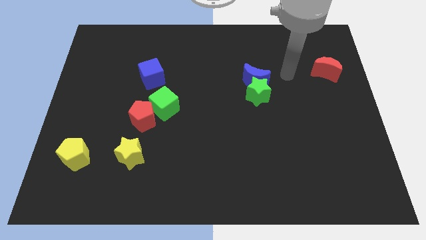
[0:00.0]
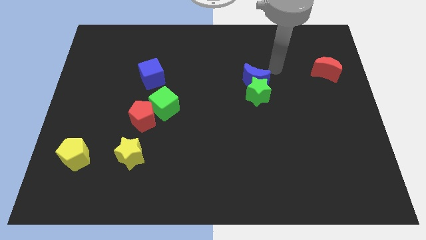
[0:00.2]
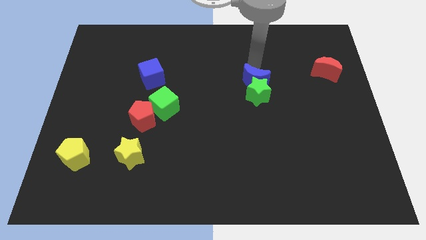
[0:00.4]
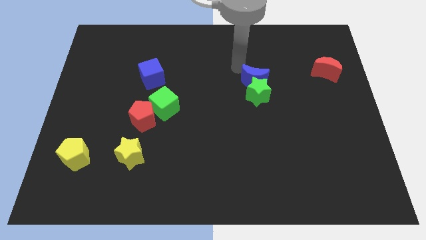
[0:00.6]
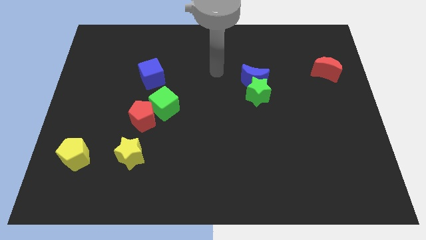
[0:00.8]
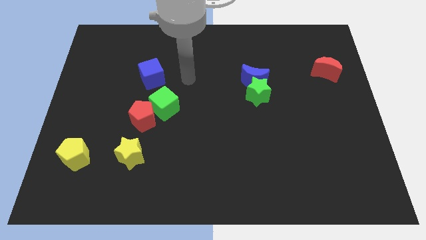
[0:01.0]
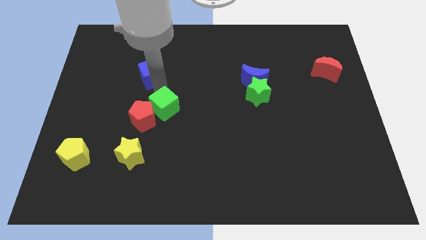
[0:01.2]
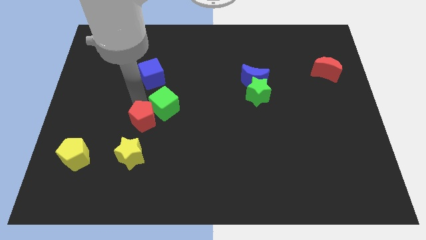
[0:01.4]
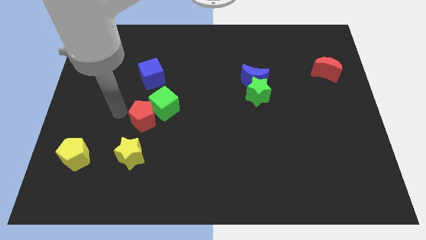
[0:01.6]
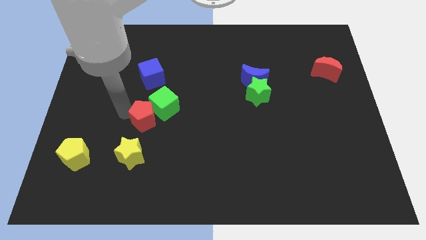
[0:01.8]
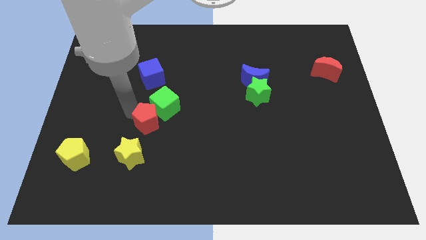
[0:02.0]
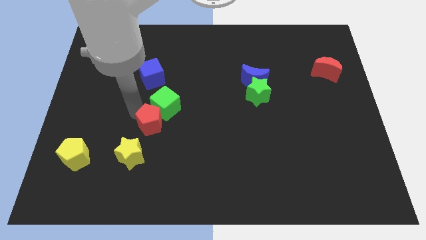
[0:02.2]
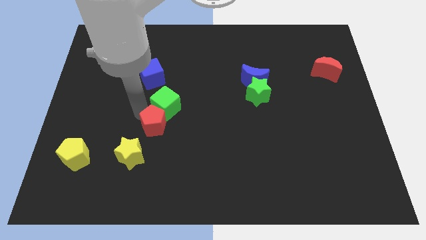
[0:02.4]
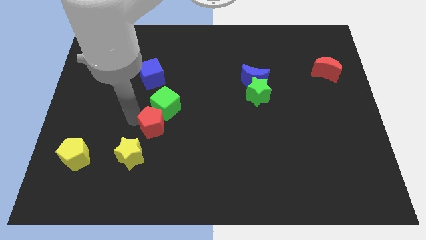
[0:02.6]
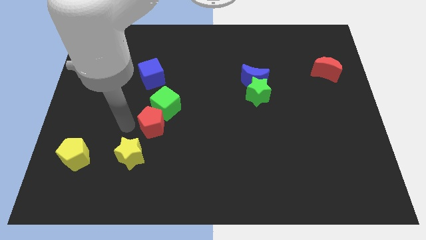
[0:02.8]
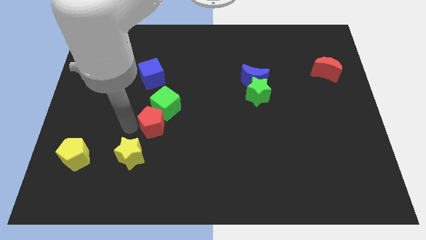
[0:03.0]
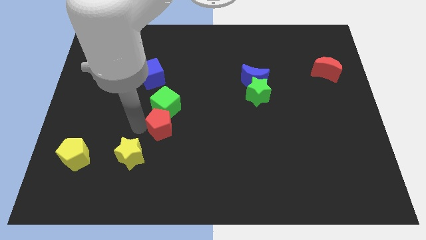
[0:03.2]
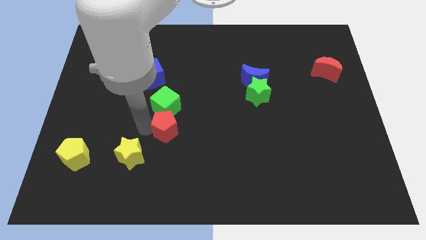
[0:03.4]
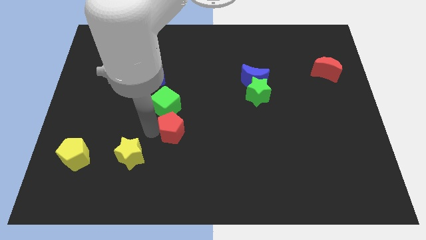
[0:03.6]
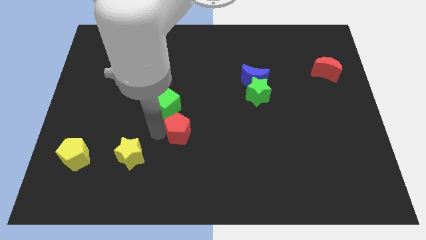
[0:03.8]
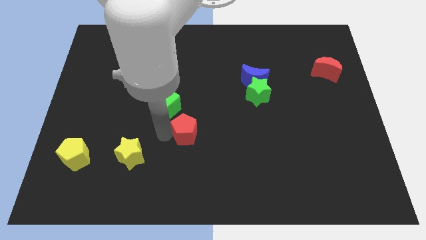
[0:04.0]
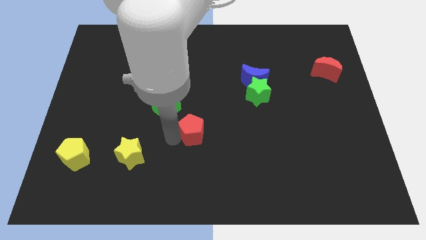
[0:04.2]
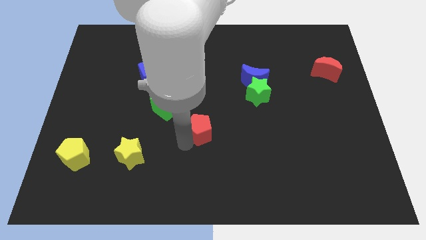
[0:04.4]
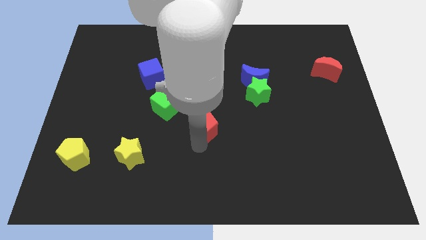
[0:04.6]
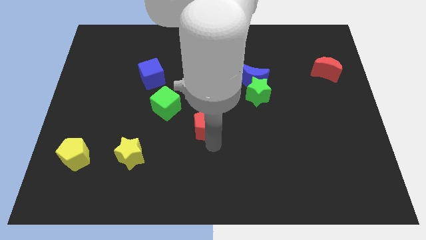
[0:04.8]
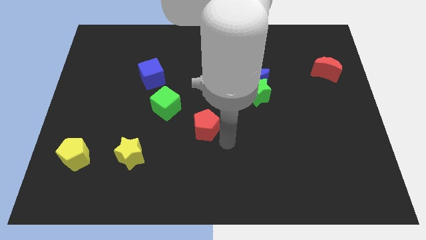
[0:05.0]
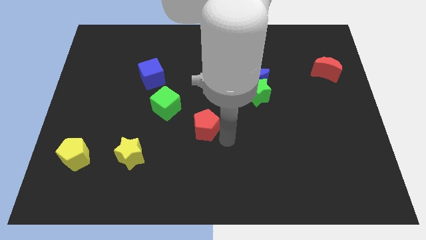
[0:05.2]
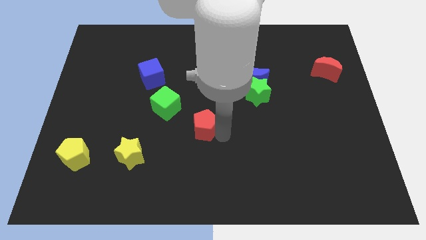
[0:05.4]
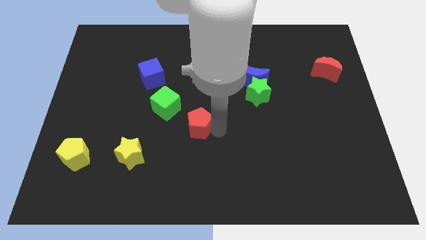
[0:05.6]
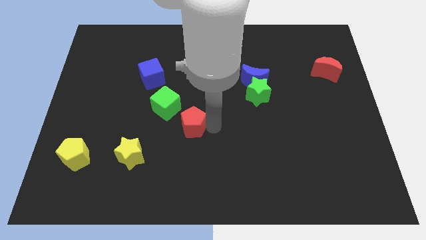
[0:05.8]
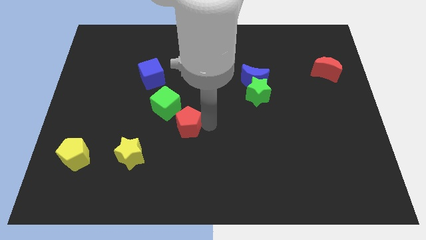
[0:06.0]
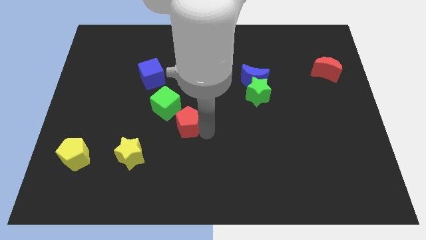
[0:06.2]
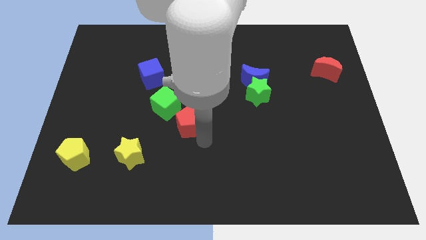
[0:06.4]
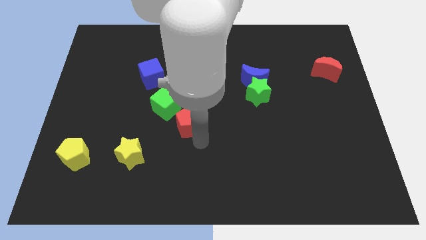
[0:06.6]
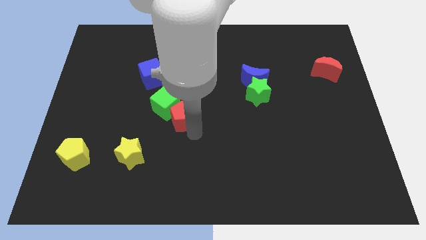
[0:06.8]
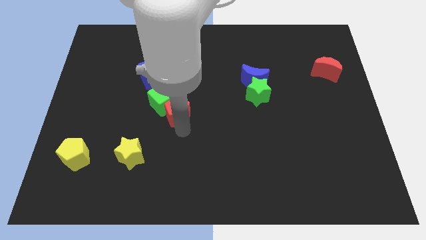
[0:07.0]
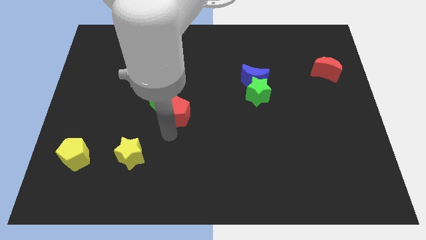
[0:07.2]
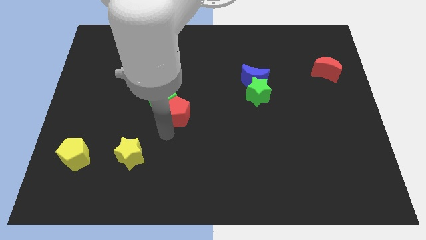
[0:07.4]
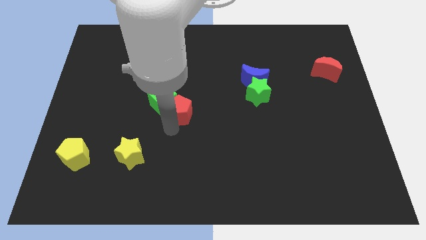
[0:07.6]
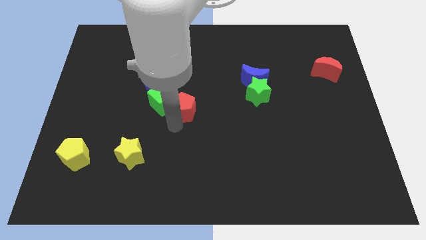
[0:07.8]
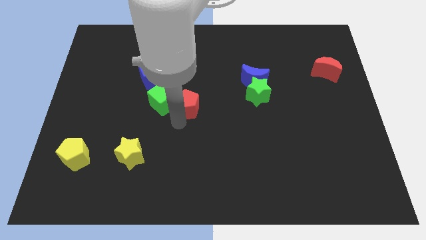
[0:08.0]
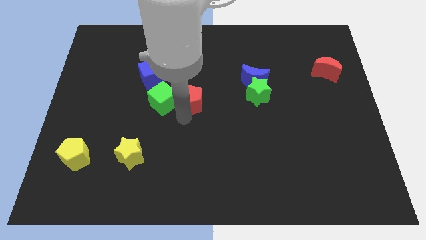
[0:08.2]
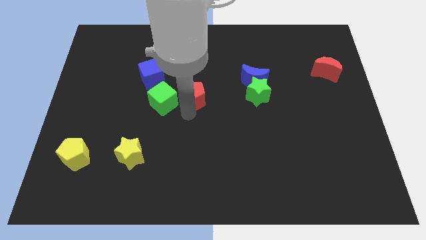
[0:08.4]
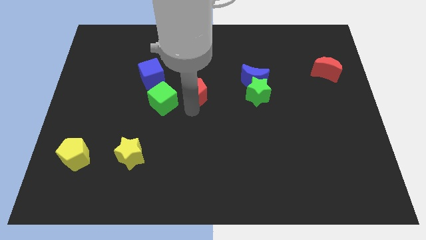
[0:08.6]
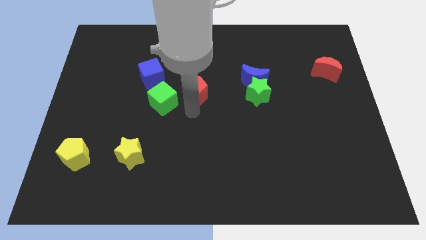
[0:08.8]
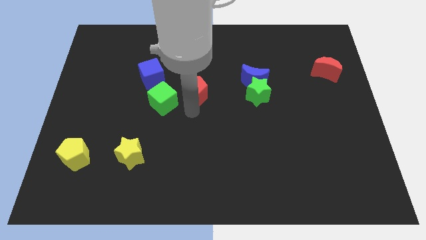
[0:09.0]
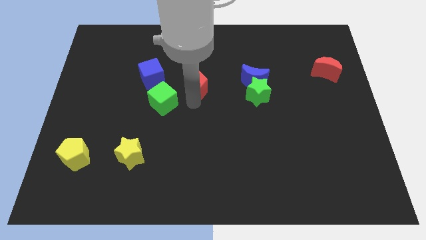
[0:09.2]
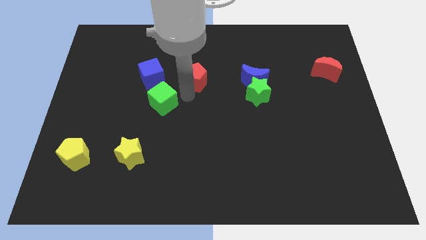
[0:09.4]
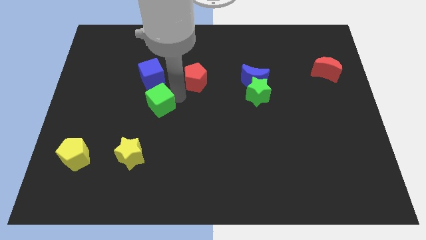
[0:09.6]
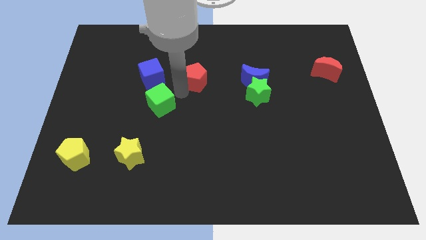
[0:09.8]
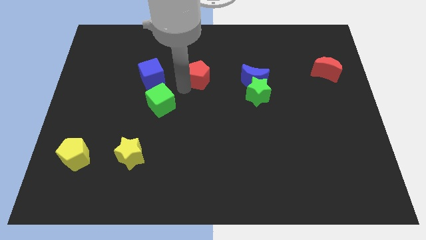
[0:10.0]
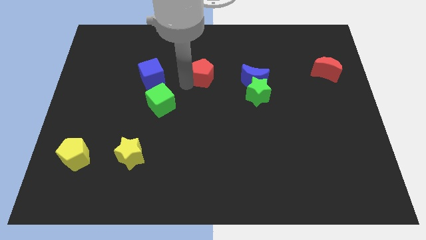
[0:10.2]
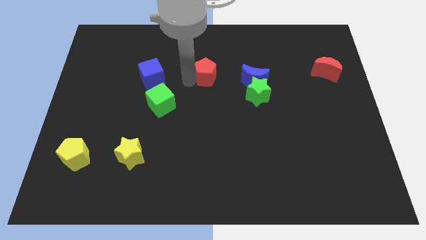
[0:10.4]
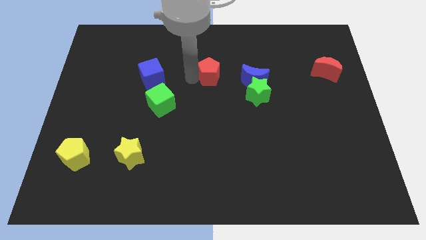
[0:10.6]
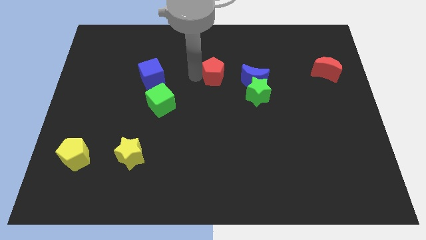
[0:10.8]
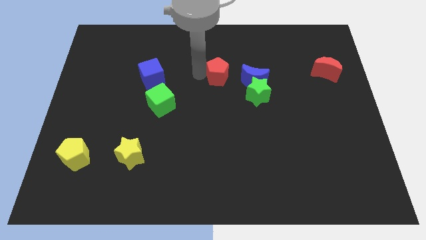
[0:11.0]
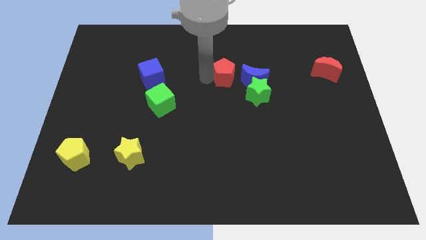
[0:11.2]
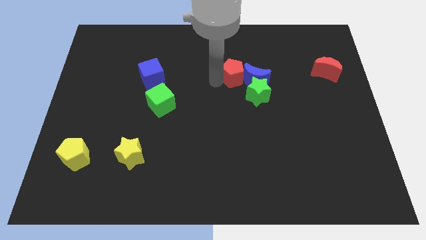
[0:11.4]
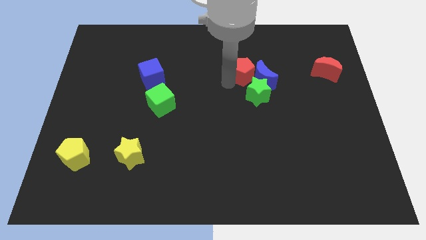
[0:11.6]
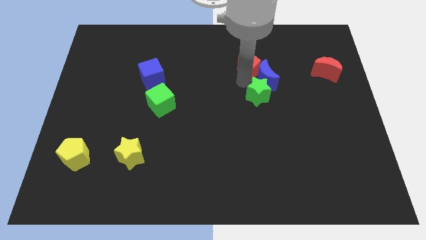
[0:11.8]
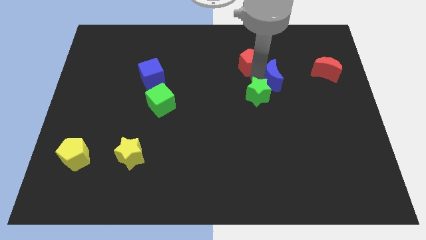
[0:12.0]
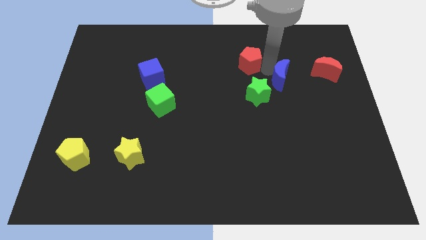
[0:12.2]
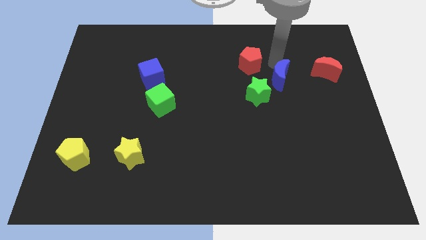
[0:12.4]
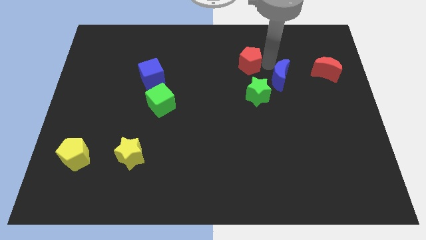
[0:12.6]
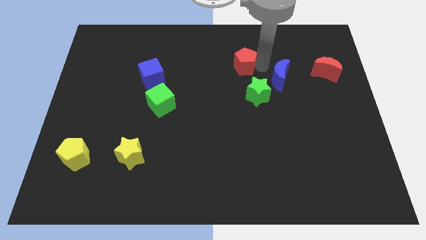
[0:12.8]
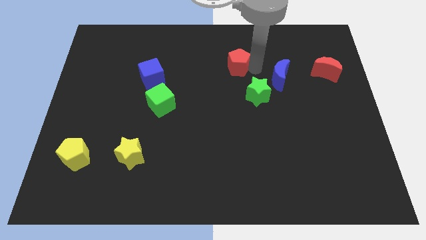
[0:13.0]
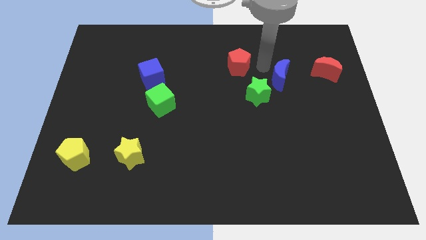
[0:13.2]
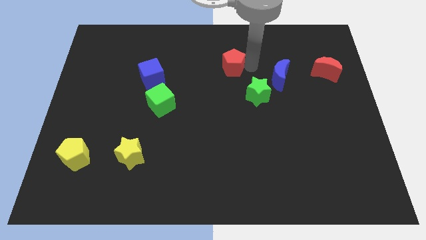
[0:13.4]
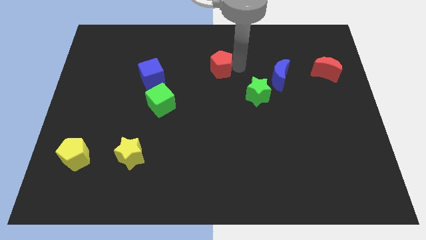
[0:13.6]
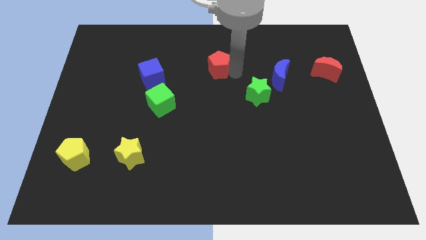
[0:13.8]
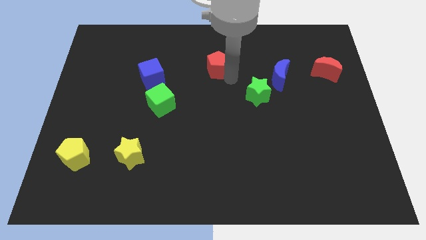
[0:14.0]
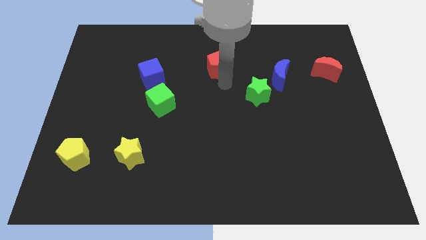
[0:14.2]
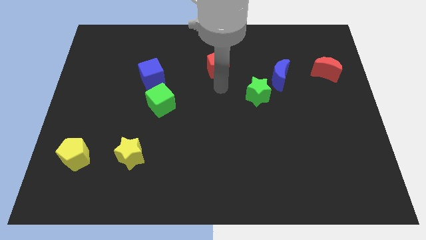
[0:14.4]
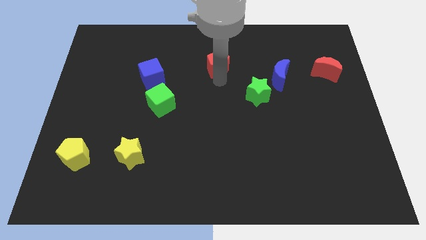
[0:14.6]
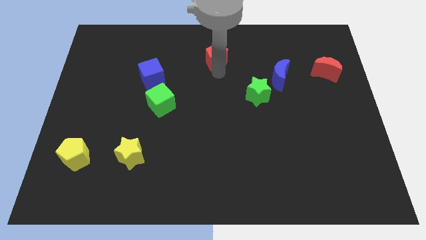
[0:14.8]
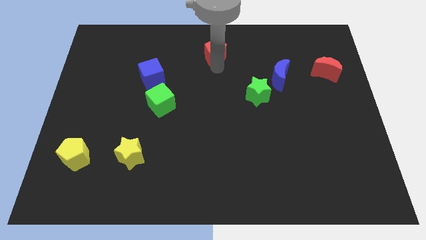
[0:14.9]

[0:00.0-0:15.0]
slide the red pentagon to the top
